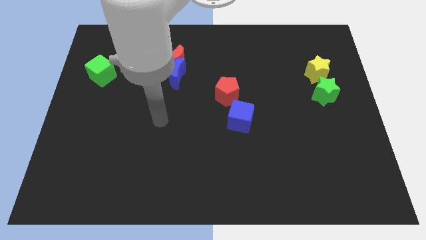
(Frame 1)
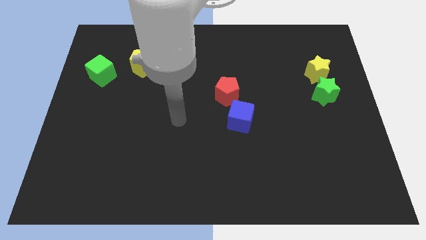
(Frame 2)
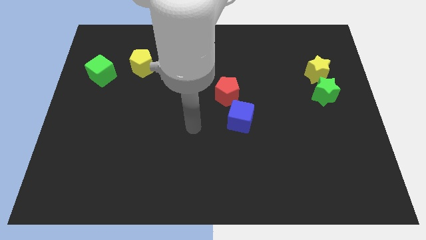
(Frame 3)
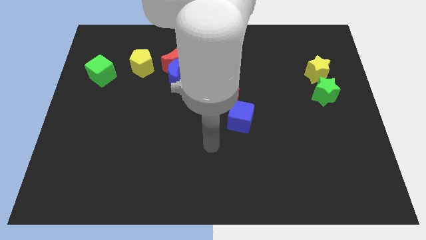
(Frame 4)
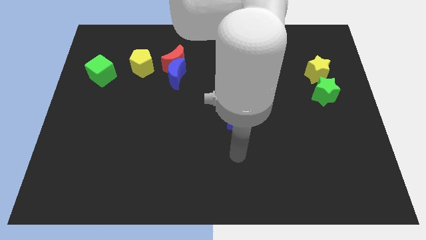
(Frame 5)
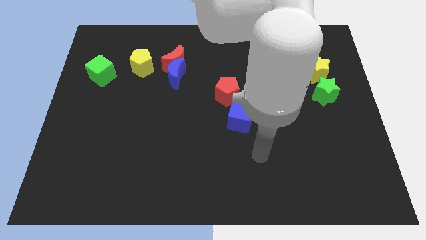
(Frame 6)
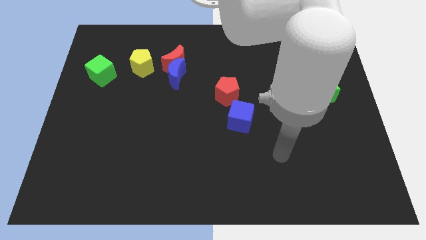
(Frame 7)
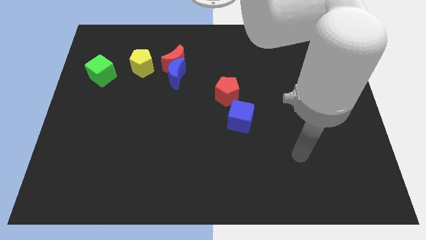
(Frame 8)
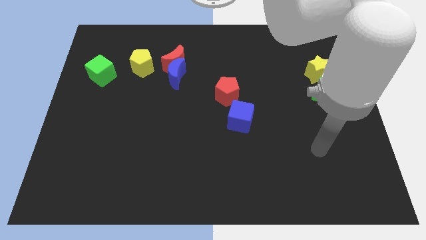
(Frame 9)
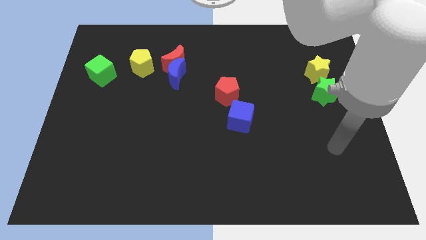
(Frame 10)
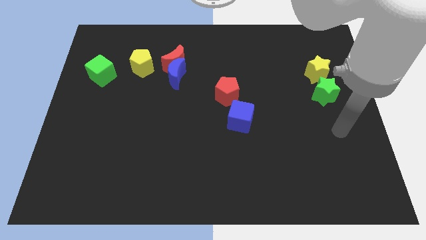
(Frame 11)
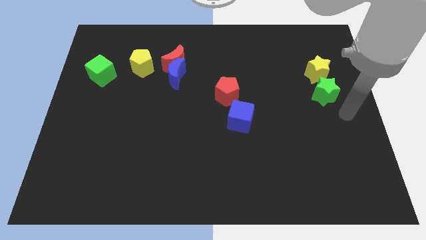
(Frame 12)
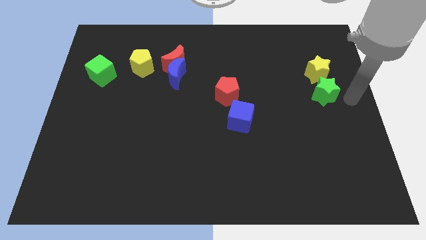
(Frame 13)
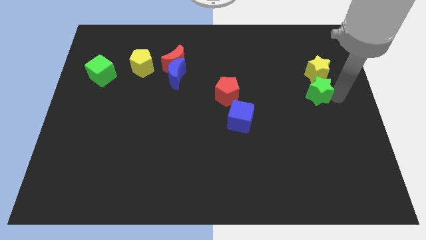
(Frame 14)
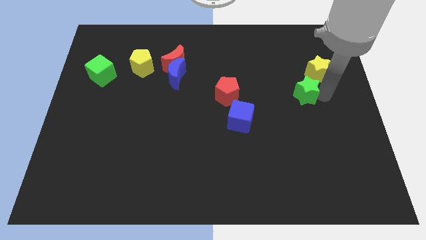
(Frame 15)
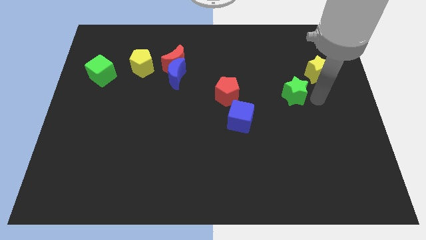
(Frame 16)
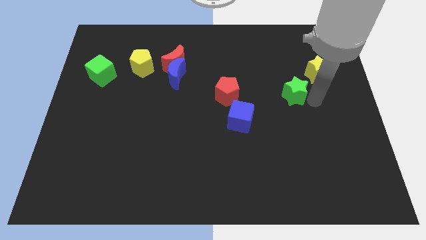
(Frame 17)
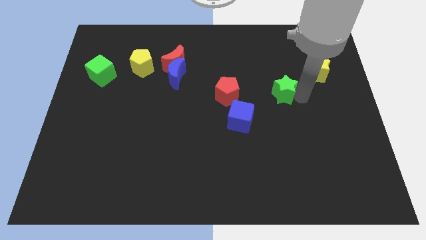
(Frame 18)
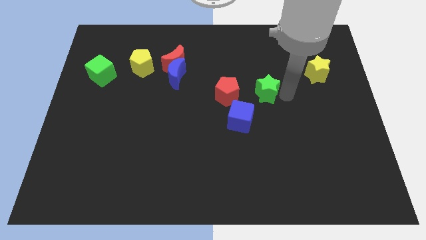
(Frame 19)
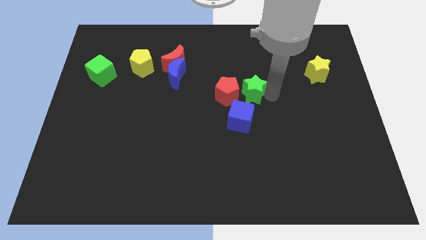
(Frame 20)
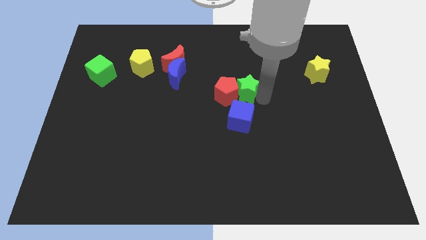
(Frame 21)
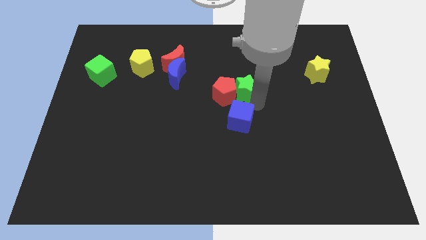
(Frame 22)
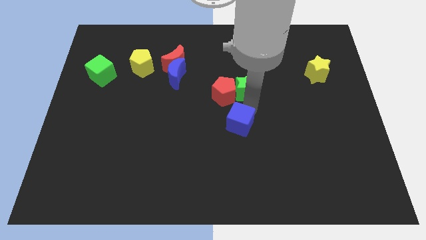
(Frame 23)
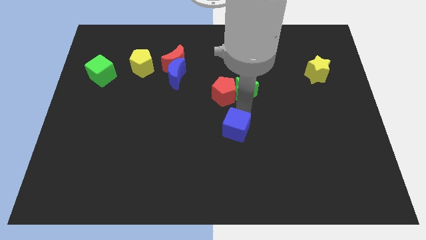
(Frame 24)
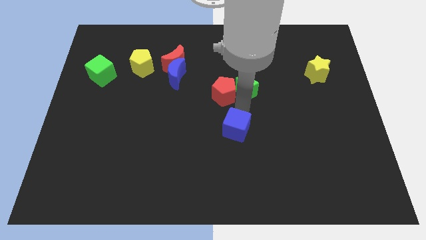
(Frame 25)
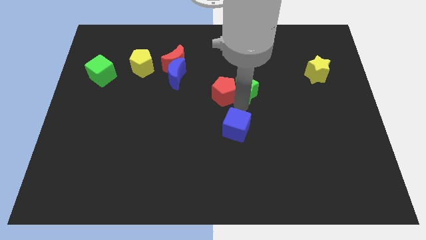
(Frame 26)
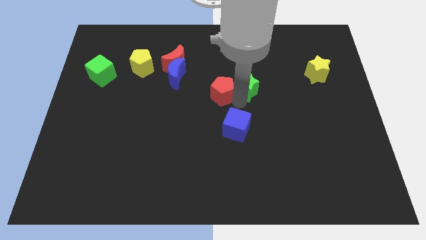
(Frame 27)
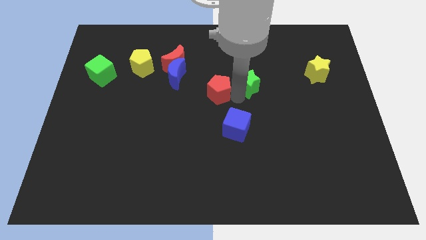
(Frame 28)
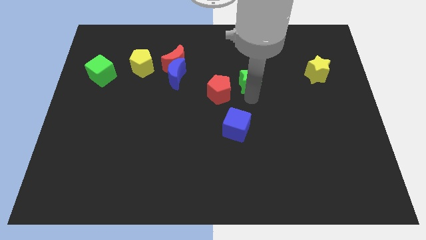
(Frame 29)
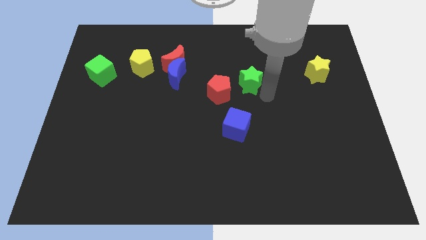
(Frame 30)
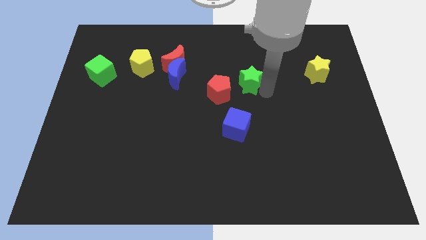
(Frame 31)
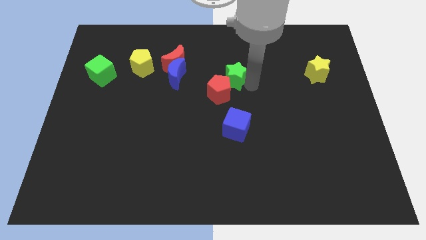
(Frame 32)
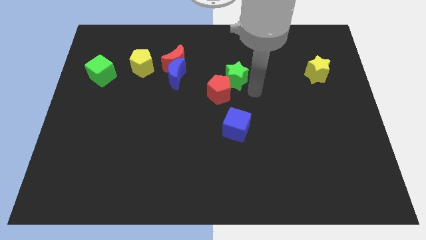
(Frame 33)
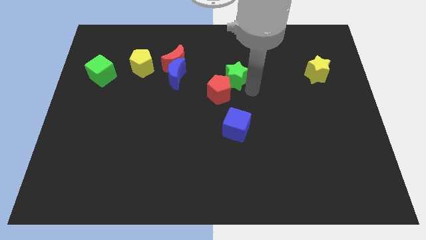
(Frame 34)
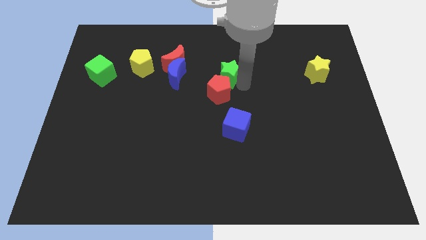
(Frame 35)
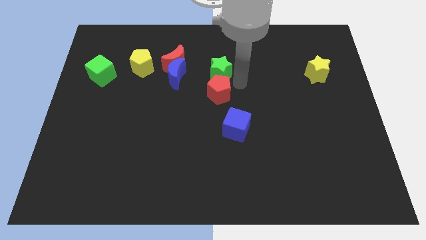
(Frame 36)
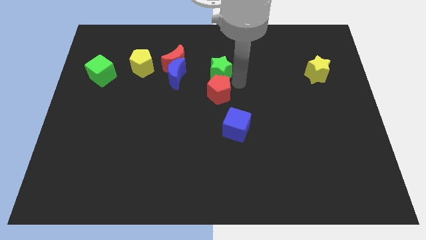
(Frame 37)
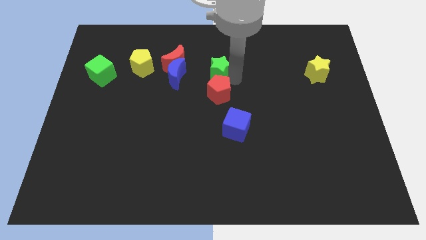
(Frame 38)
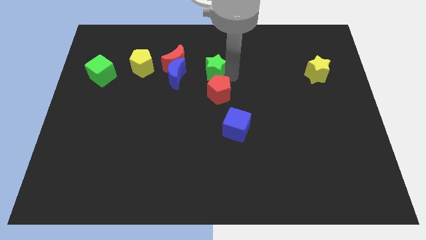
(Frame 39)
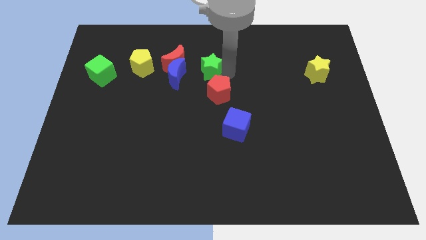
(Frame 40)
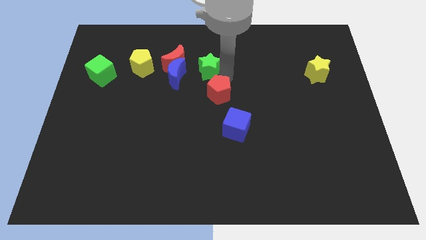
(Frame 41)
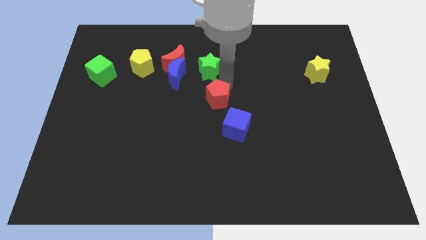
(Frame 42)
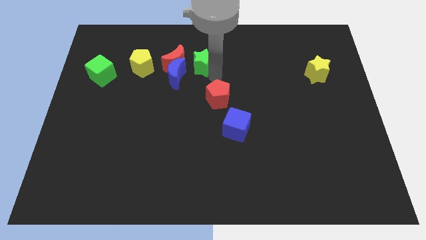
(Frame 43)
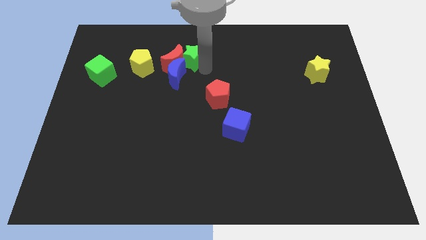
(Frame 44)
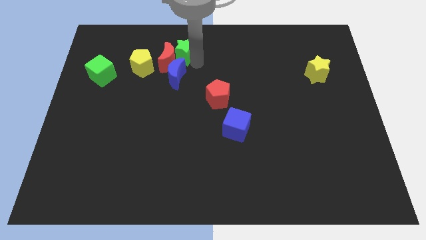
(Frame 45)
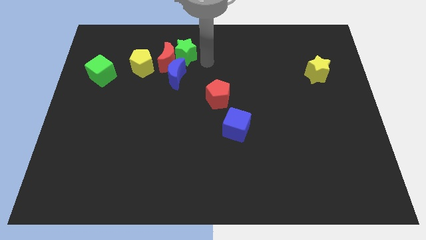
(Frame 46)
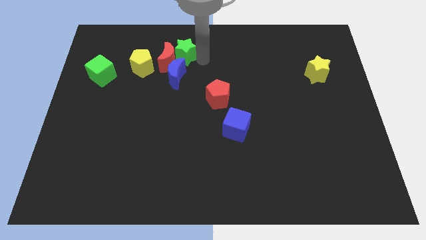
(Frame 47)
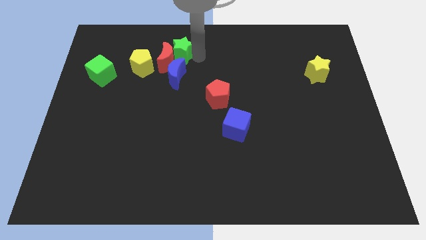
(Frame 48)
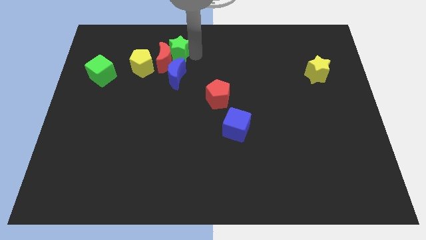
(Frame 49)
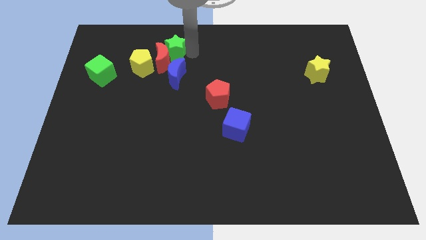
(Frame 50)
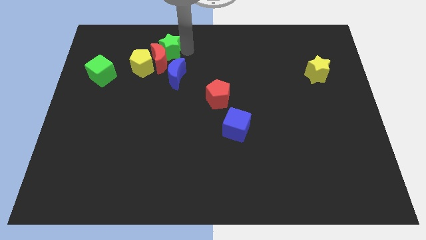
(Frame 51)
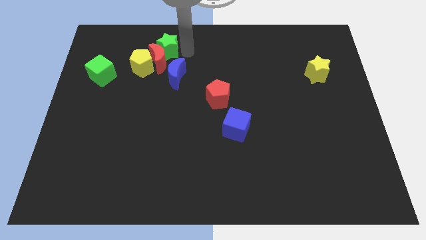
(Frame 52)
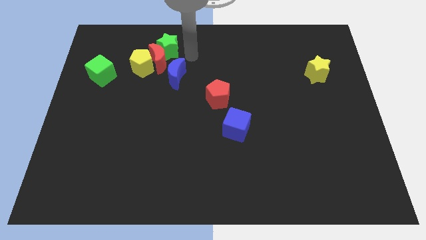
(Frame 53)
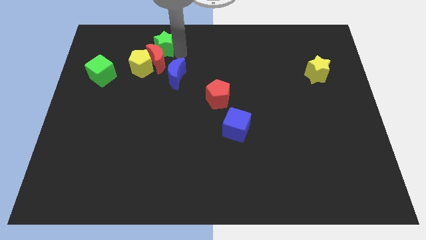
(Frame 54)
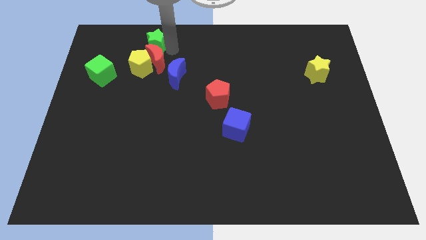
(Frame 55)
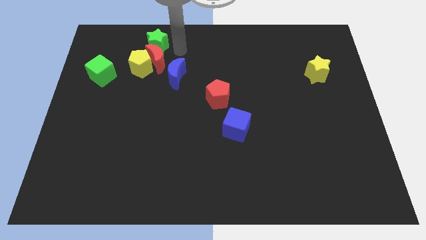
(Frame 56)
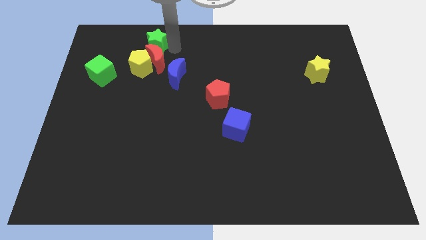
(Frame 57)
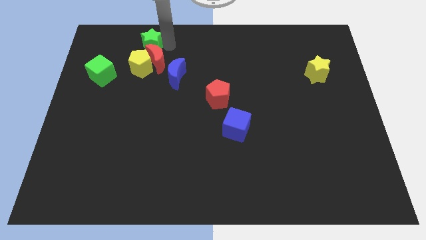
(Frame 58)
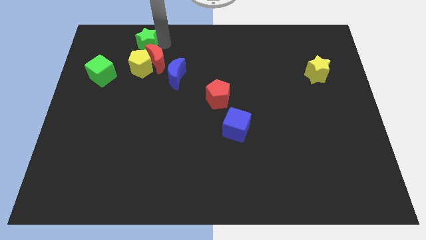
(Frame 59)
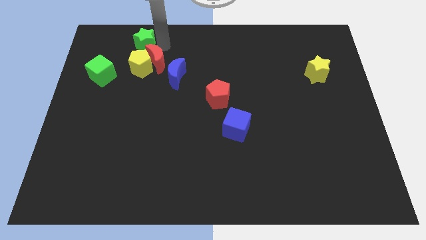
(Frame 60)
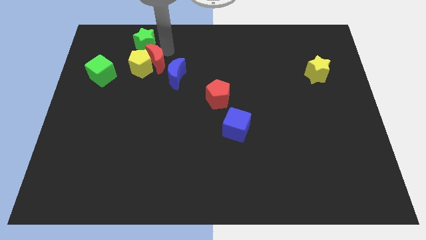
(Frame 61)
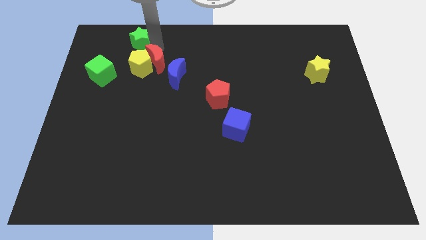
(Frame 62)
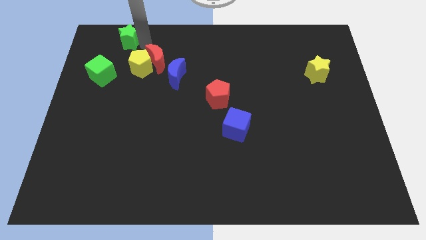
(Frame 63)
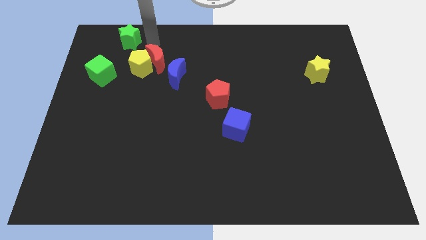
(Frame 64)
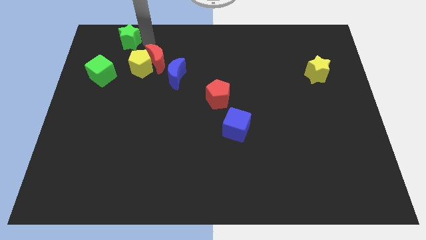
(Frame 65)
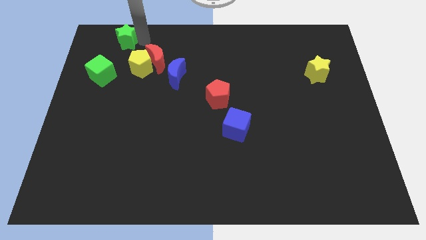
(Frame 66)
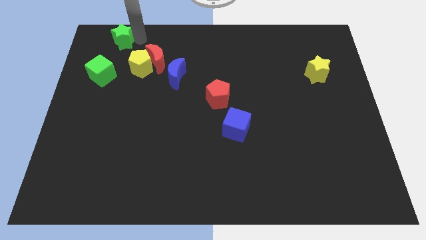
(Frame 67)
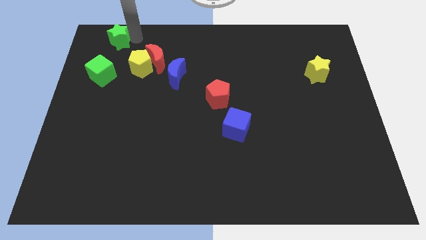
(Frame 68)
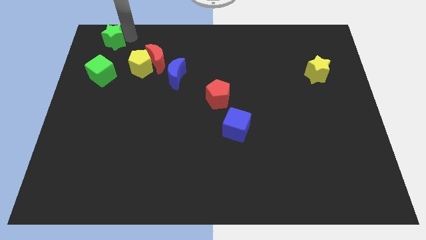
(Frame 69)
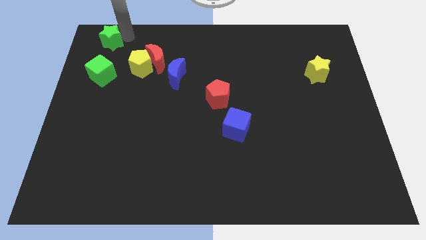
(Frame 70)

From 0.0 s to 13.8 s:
move the green star to the top left of the board
